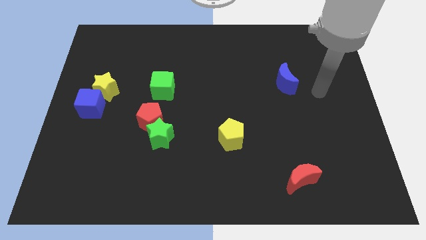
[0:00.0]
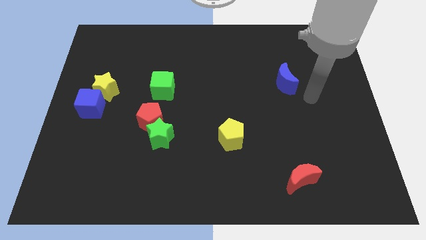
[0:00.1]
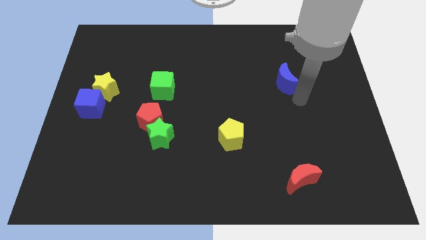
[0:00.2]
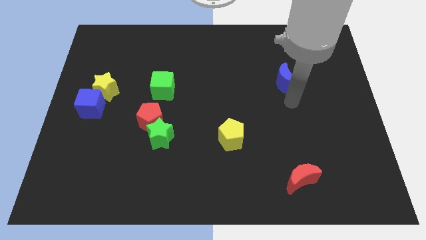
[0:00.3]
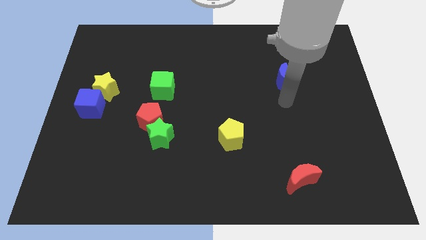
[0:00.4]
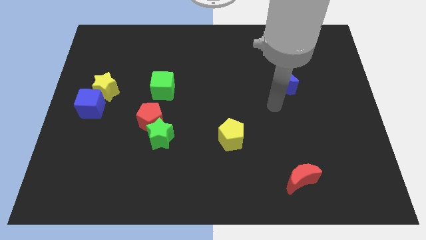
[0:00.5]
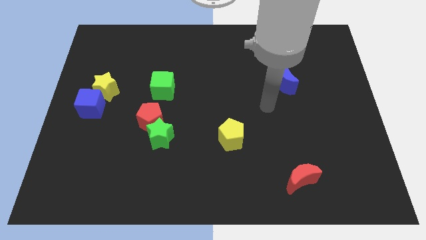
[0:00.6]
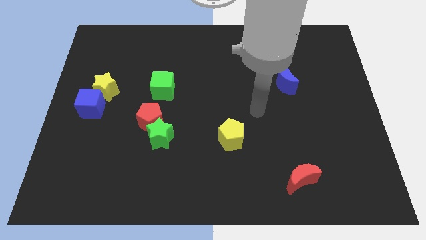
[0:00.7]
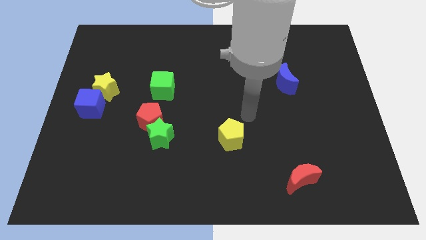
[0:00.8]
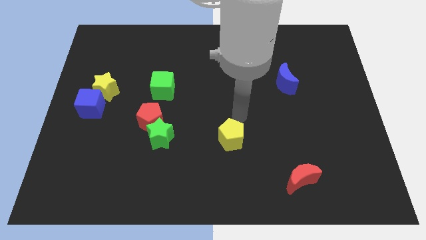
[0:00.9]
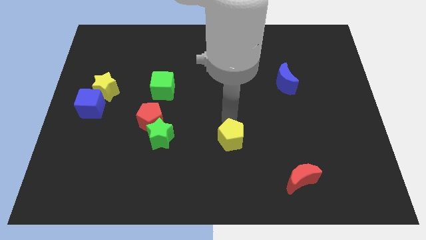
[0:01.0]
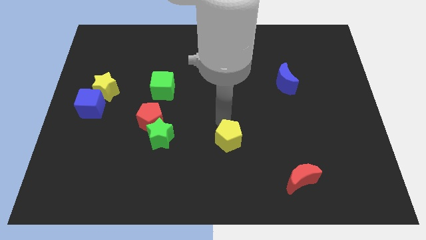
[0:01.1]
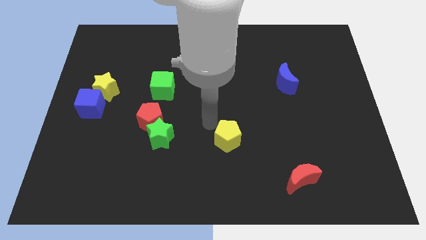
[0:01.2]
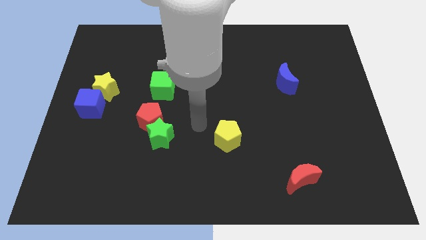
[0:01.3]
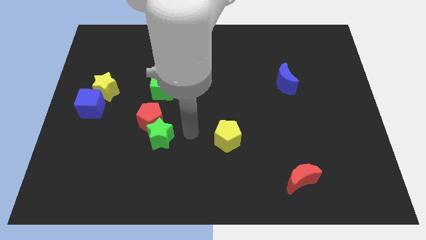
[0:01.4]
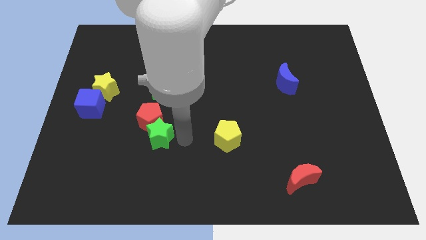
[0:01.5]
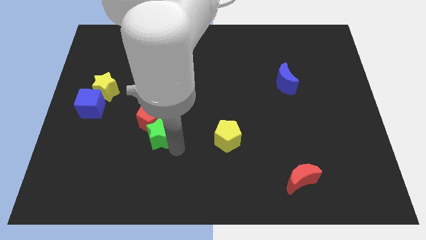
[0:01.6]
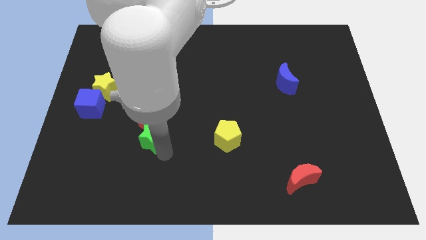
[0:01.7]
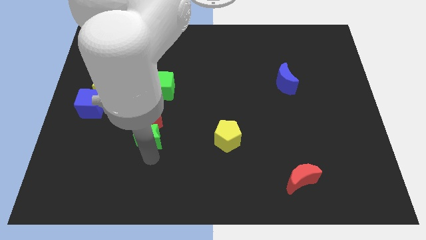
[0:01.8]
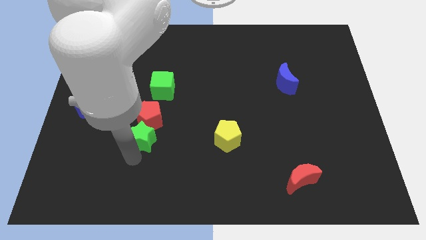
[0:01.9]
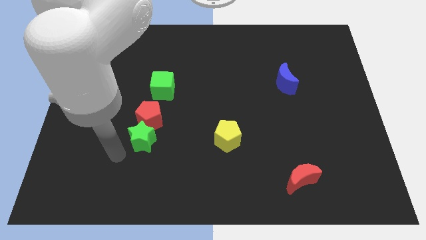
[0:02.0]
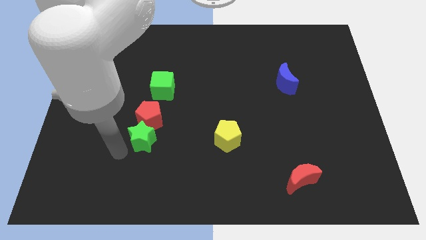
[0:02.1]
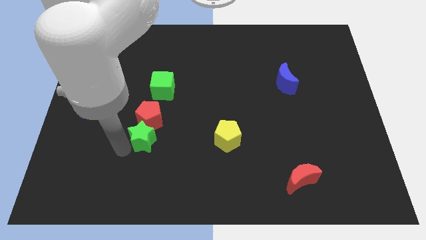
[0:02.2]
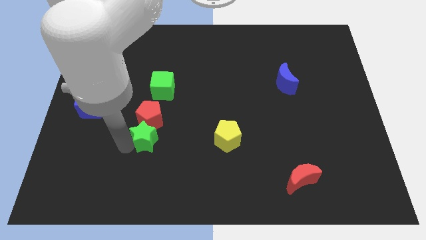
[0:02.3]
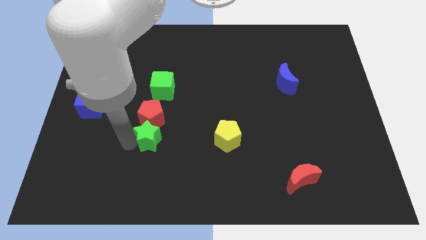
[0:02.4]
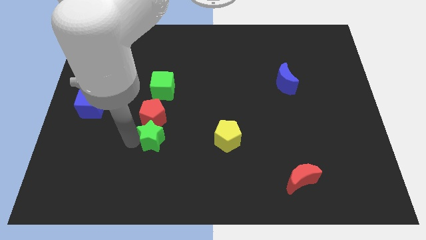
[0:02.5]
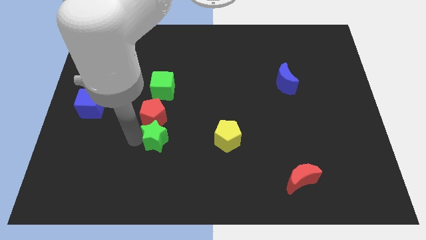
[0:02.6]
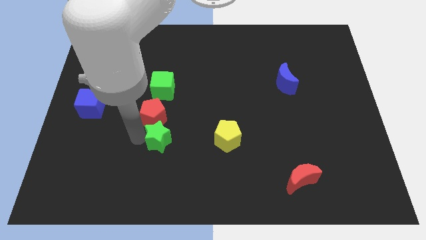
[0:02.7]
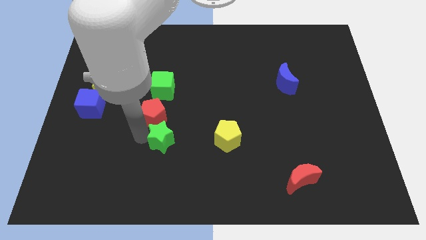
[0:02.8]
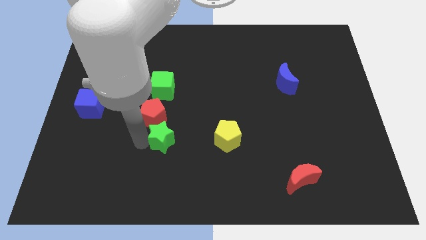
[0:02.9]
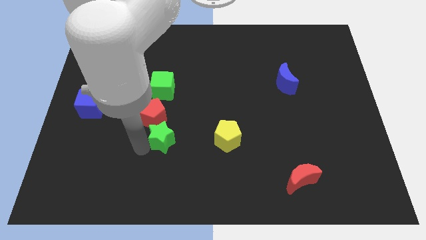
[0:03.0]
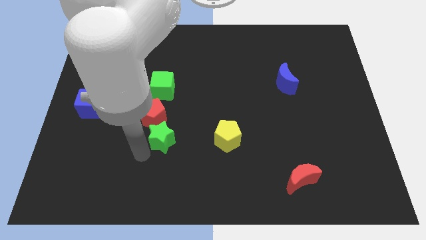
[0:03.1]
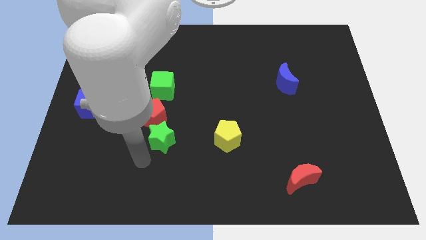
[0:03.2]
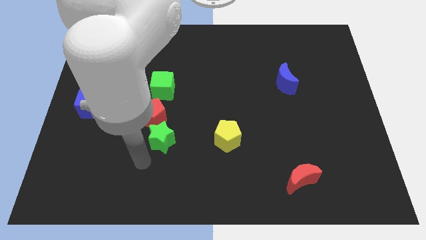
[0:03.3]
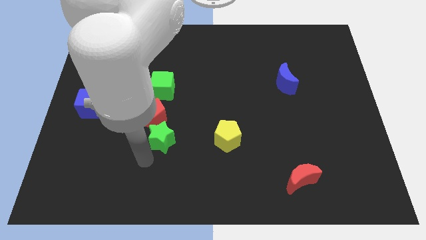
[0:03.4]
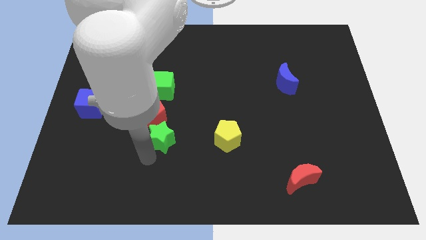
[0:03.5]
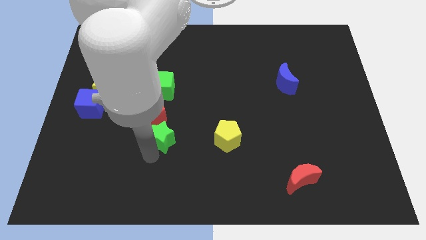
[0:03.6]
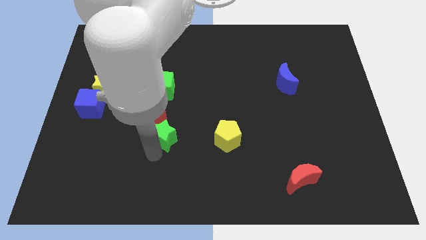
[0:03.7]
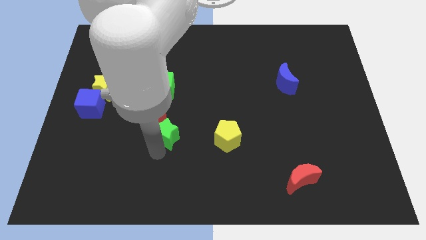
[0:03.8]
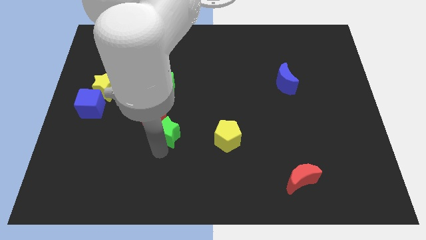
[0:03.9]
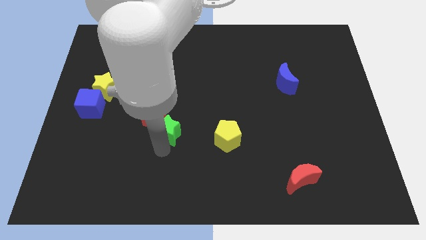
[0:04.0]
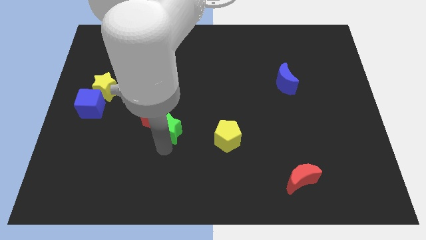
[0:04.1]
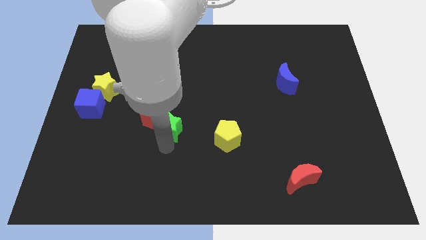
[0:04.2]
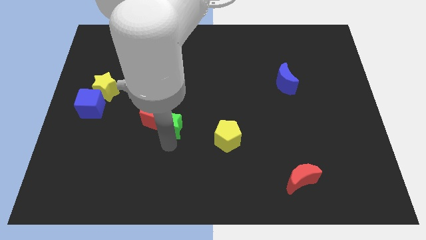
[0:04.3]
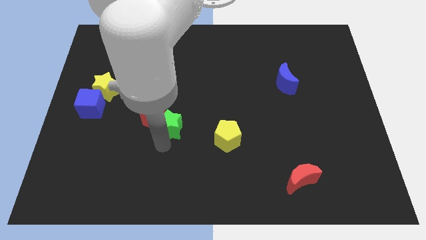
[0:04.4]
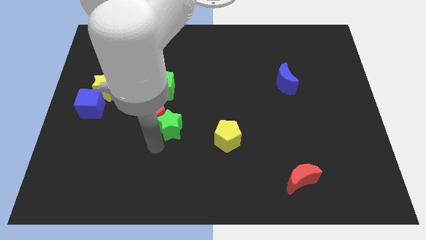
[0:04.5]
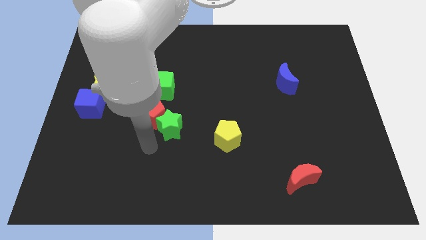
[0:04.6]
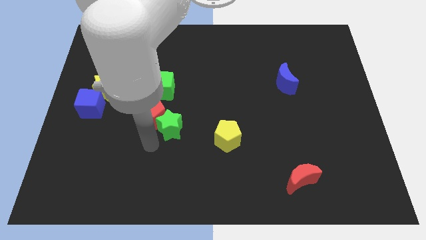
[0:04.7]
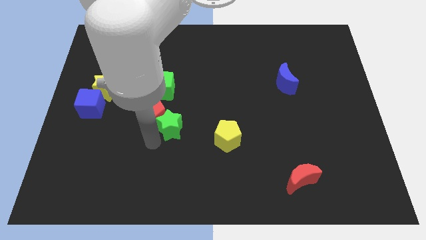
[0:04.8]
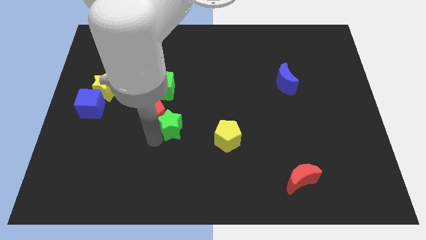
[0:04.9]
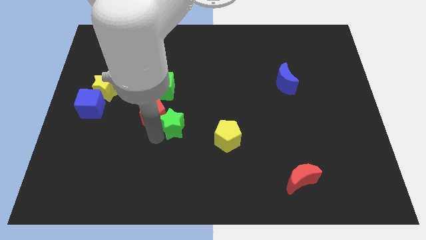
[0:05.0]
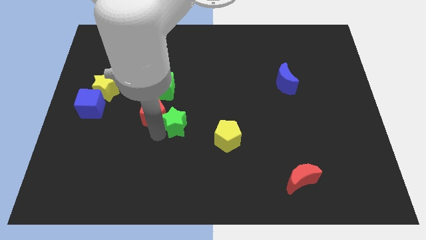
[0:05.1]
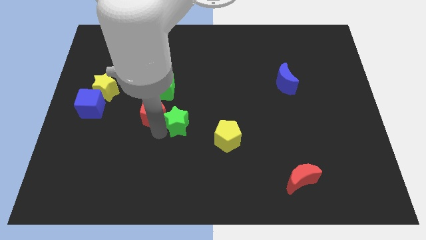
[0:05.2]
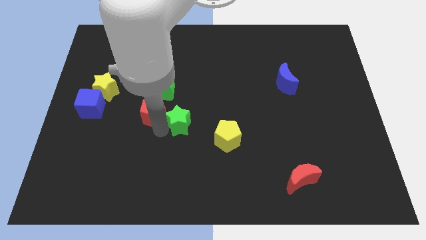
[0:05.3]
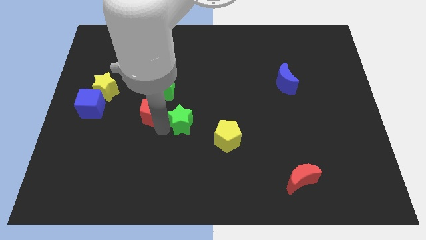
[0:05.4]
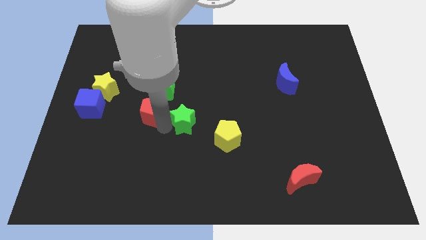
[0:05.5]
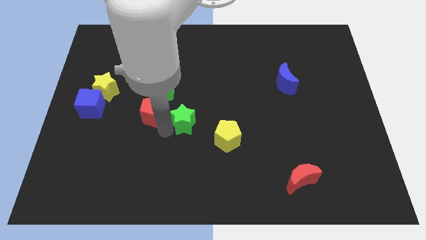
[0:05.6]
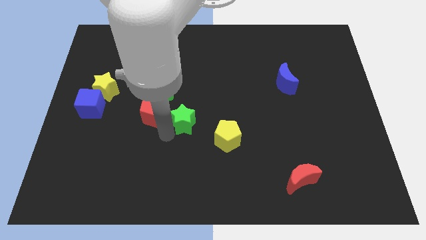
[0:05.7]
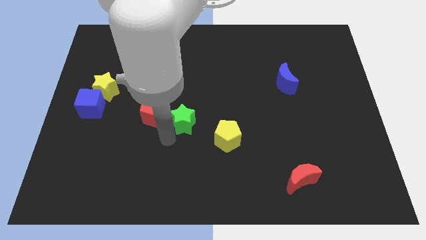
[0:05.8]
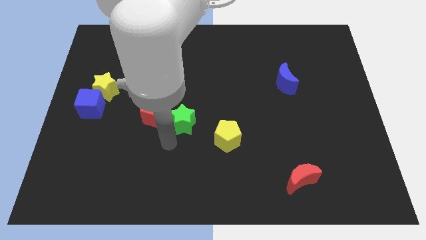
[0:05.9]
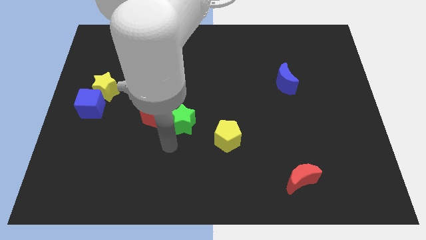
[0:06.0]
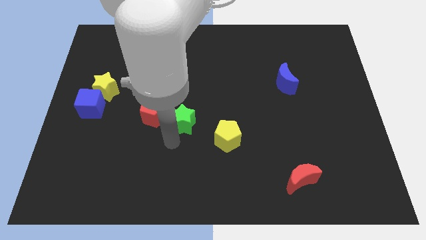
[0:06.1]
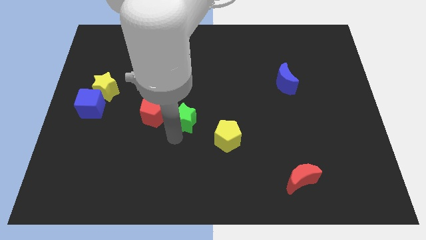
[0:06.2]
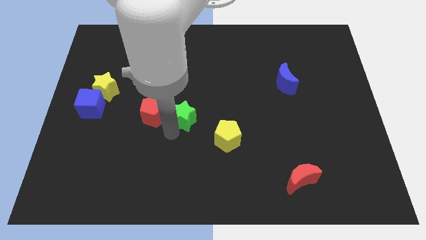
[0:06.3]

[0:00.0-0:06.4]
slightly move the green star up and right

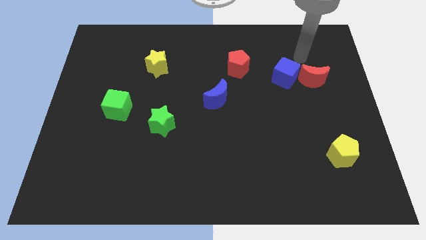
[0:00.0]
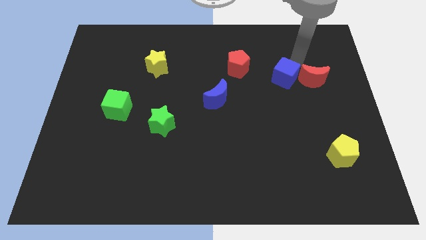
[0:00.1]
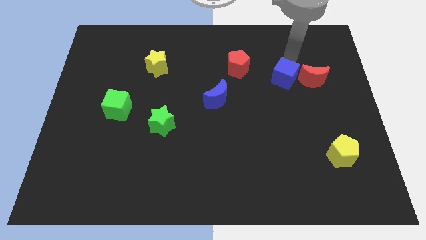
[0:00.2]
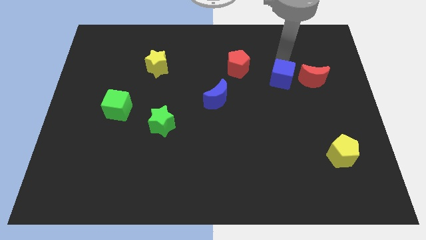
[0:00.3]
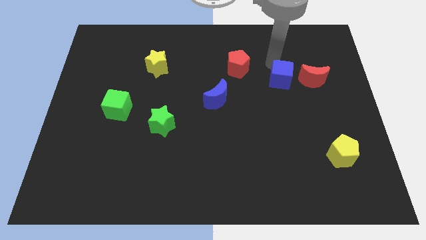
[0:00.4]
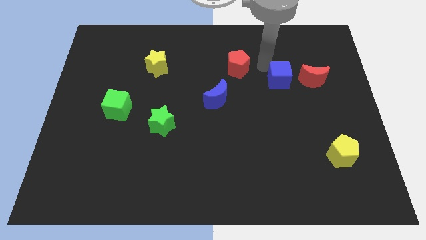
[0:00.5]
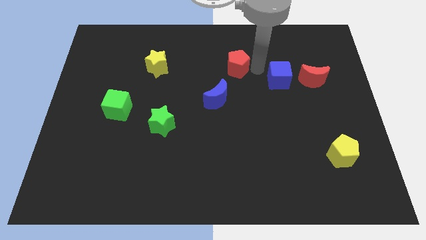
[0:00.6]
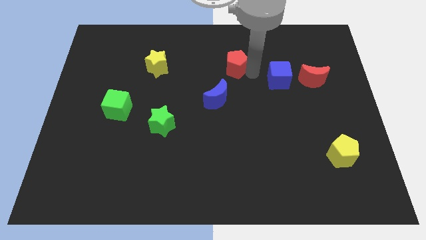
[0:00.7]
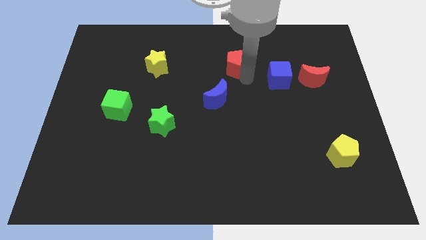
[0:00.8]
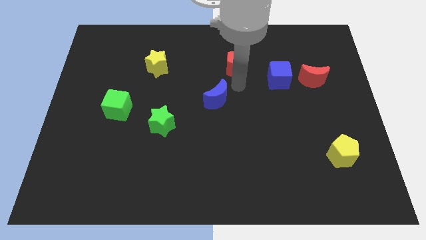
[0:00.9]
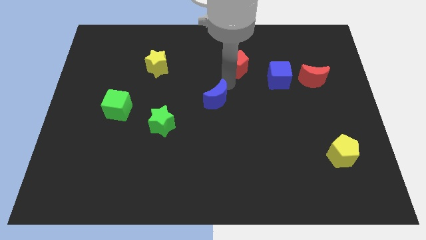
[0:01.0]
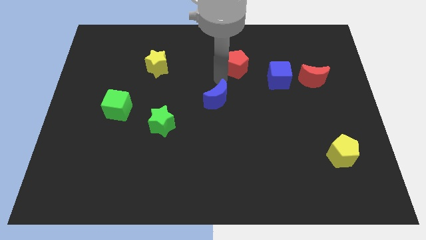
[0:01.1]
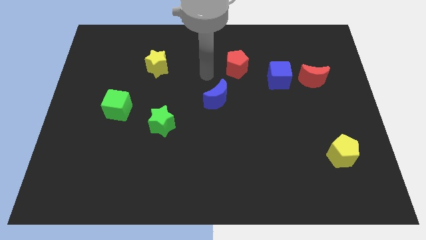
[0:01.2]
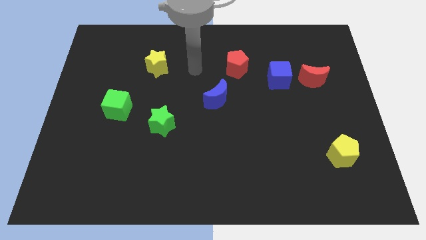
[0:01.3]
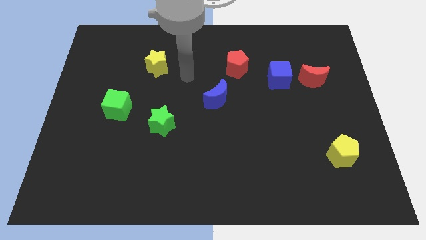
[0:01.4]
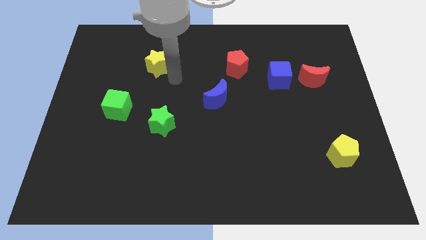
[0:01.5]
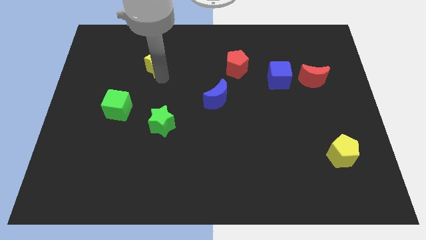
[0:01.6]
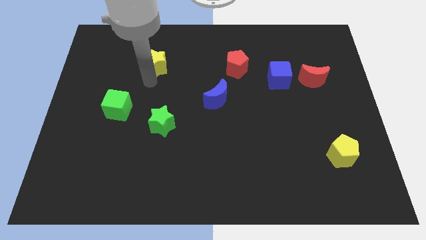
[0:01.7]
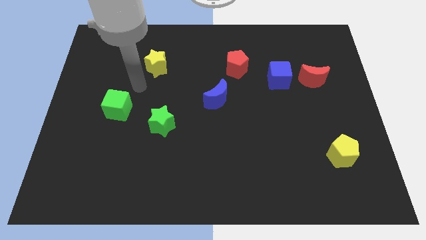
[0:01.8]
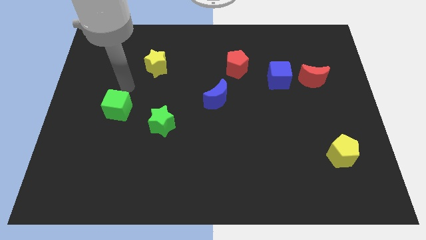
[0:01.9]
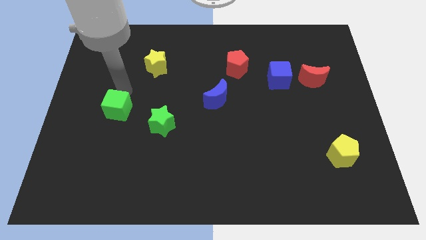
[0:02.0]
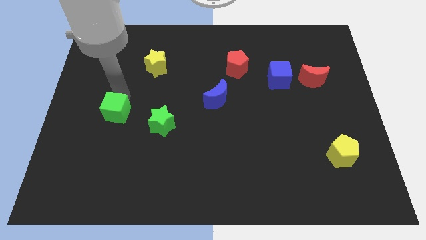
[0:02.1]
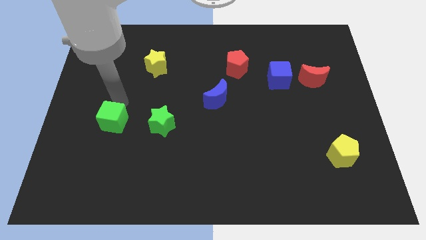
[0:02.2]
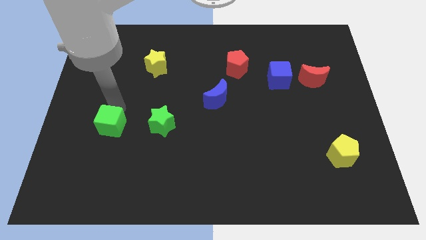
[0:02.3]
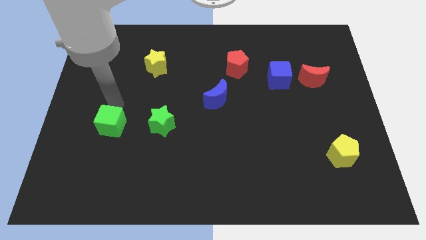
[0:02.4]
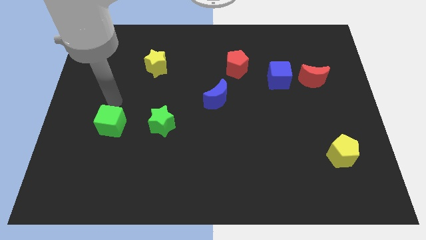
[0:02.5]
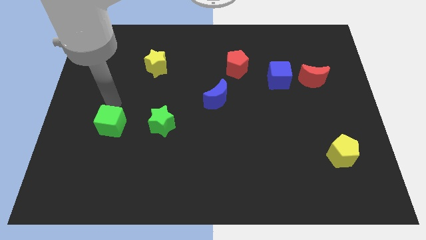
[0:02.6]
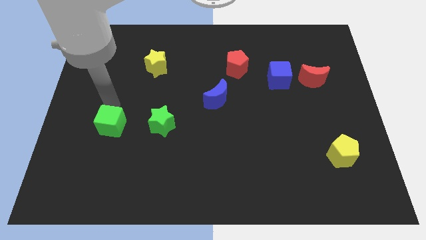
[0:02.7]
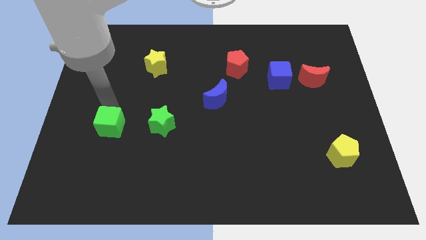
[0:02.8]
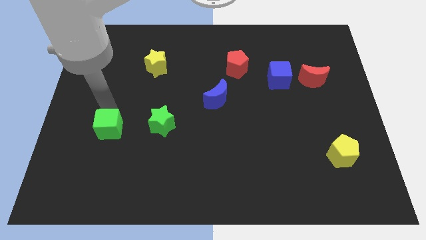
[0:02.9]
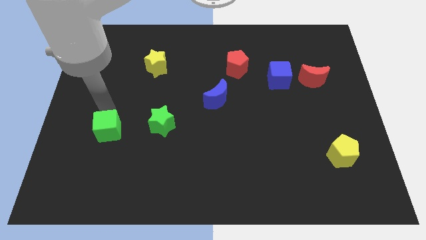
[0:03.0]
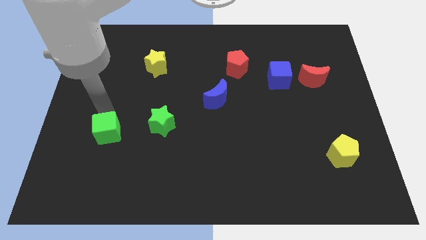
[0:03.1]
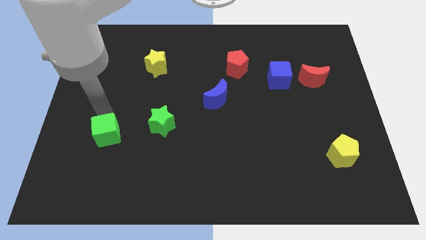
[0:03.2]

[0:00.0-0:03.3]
slide the green cube a little bit down
